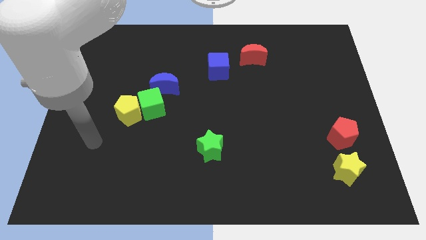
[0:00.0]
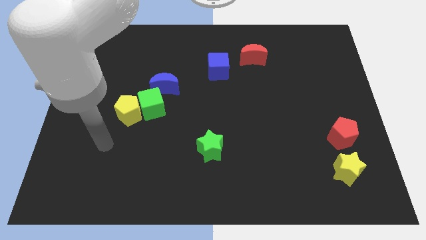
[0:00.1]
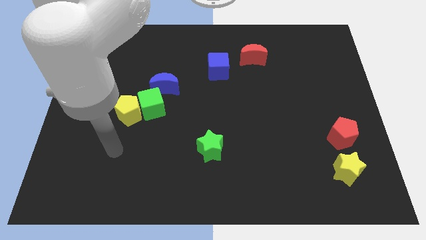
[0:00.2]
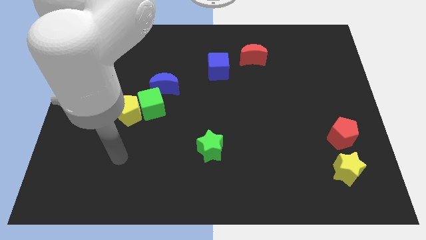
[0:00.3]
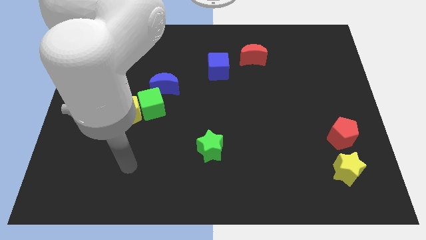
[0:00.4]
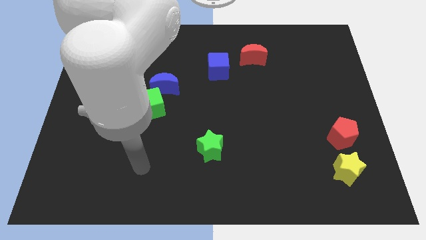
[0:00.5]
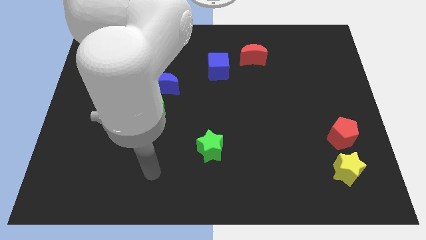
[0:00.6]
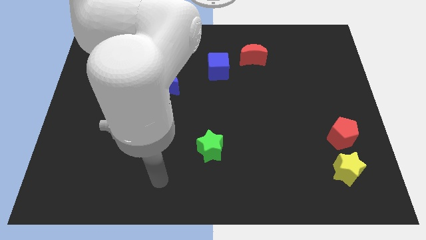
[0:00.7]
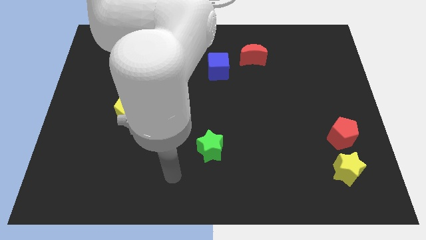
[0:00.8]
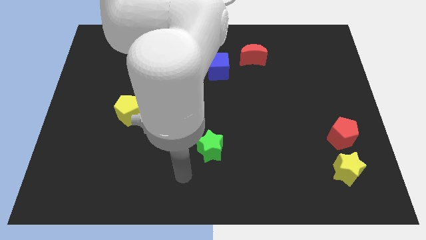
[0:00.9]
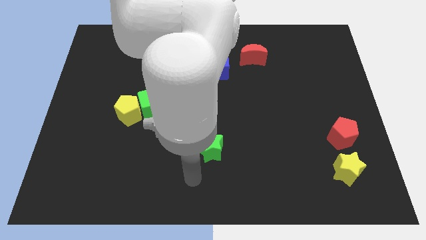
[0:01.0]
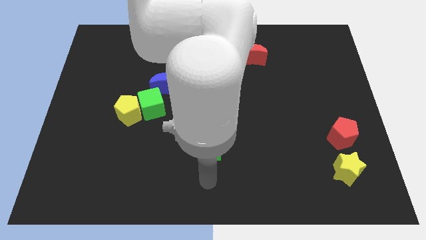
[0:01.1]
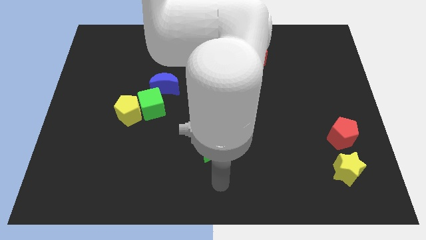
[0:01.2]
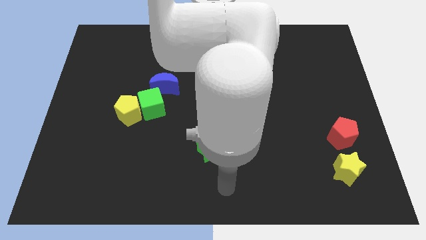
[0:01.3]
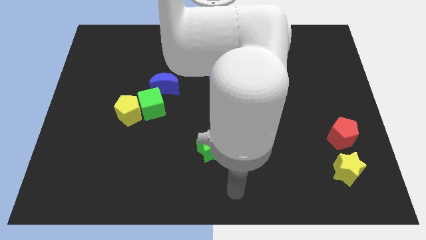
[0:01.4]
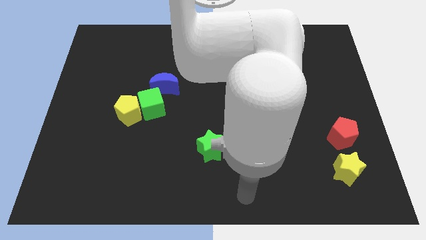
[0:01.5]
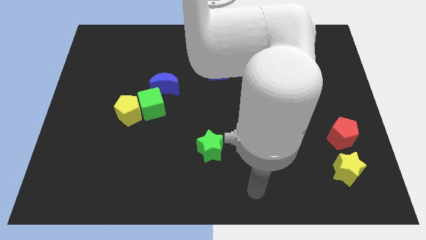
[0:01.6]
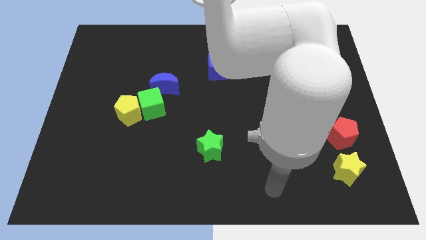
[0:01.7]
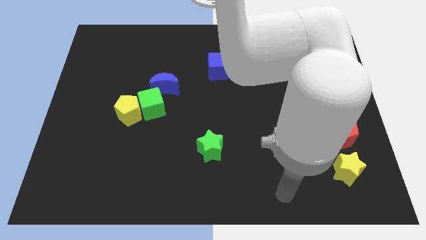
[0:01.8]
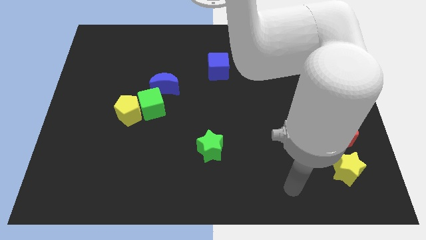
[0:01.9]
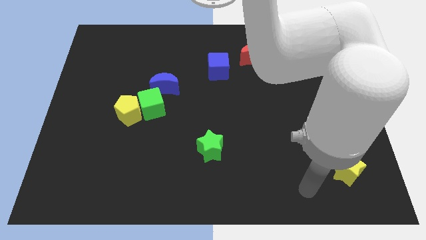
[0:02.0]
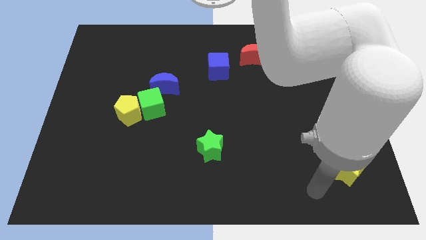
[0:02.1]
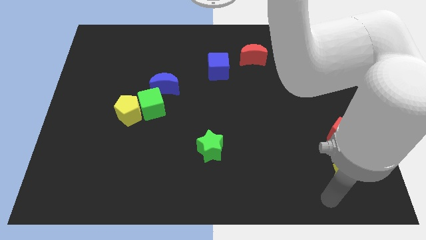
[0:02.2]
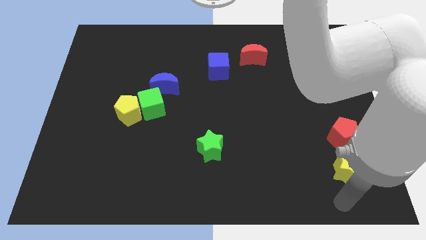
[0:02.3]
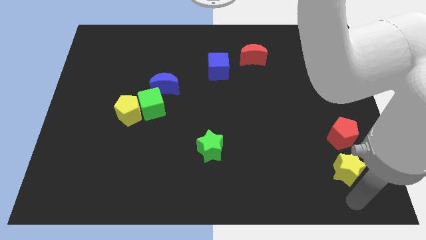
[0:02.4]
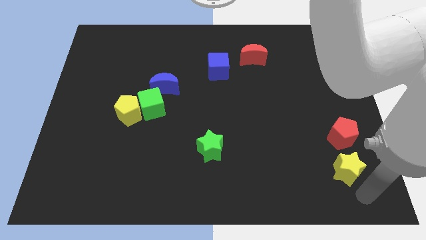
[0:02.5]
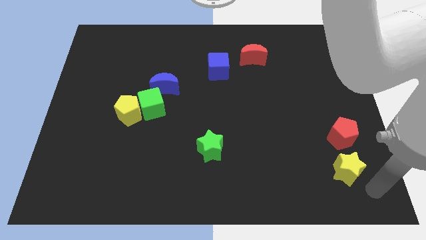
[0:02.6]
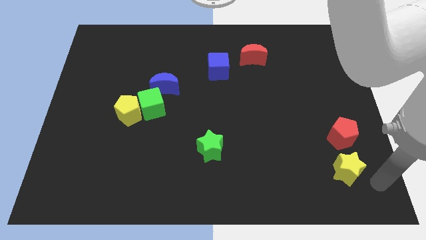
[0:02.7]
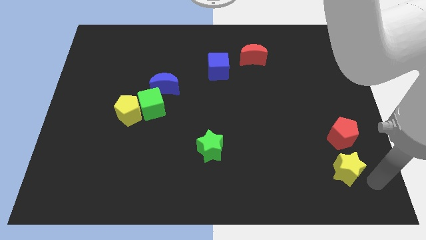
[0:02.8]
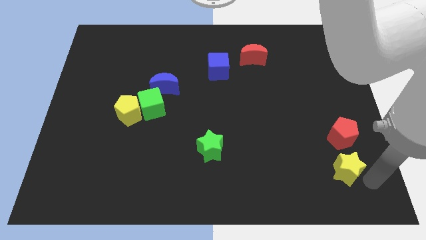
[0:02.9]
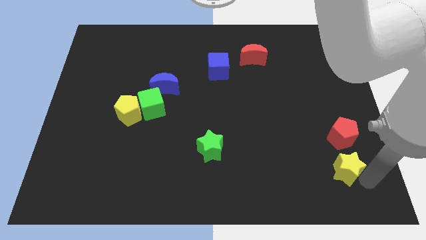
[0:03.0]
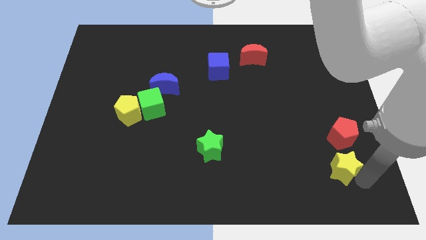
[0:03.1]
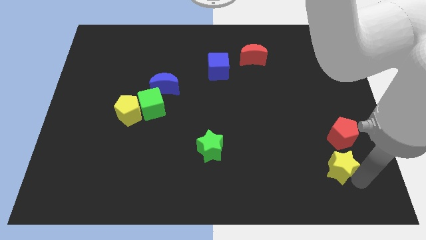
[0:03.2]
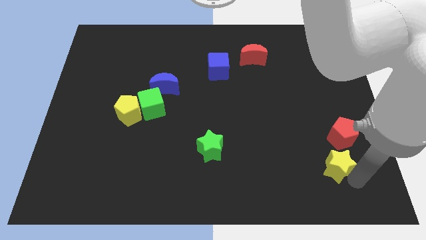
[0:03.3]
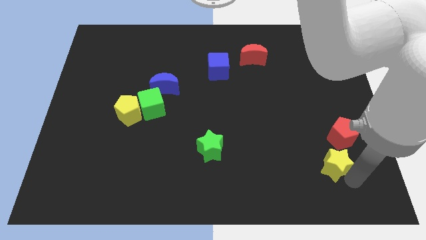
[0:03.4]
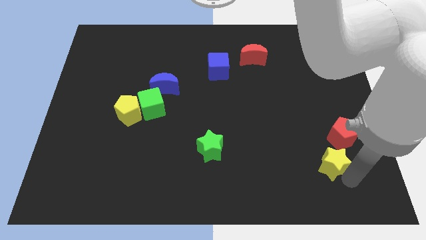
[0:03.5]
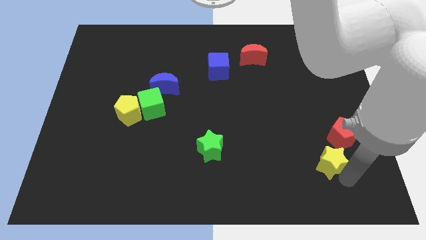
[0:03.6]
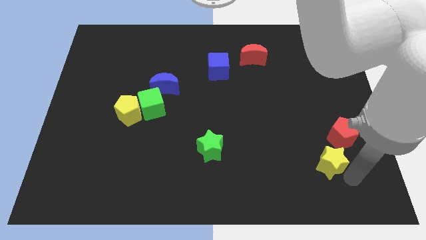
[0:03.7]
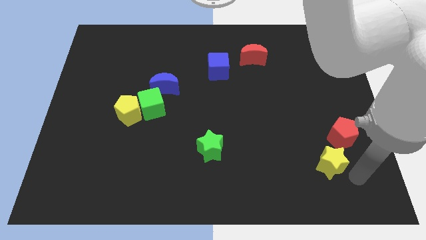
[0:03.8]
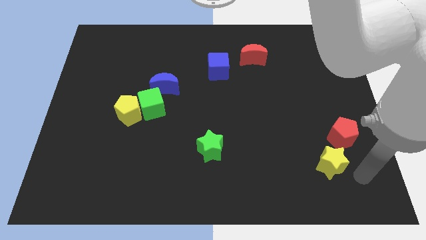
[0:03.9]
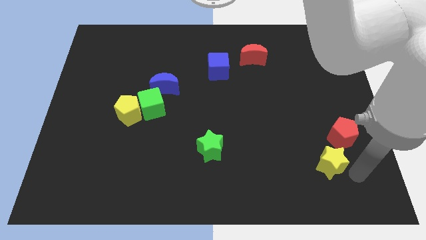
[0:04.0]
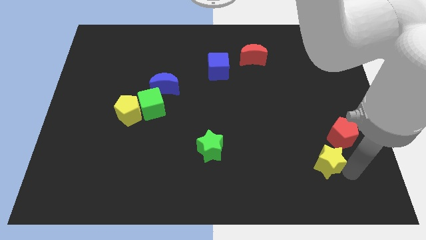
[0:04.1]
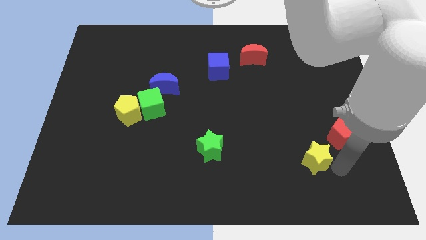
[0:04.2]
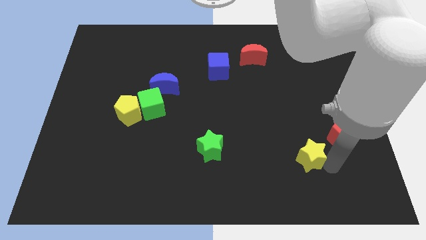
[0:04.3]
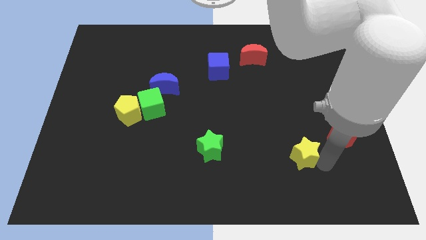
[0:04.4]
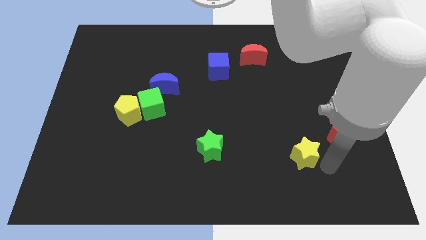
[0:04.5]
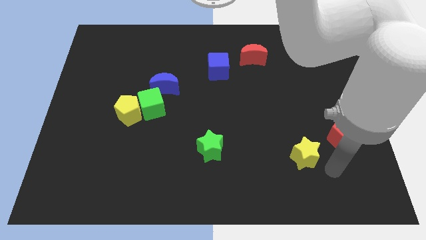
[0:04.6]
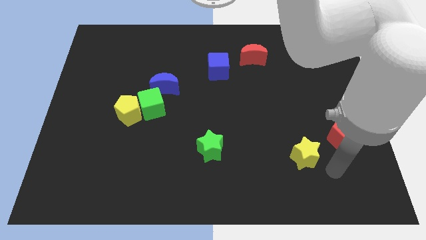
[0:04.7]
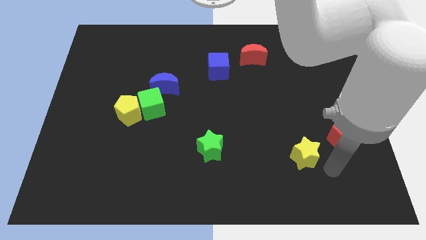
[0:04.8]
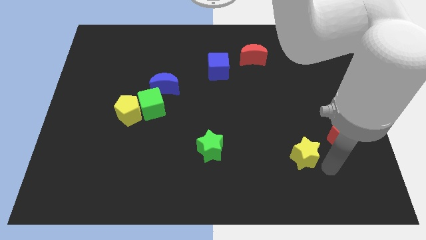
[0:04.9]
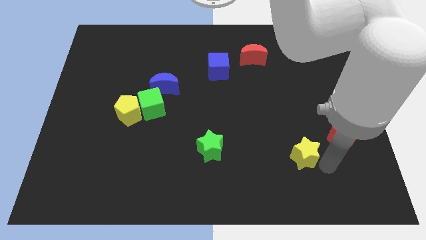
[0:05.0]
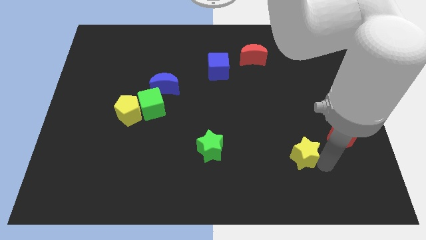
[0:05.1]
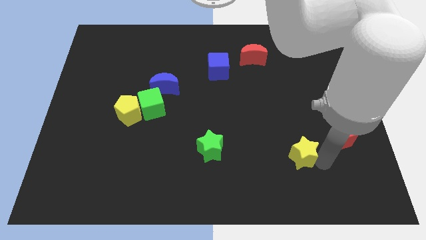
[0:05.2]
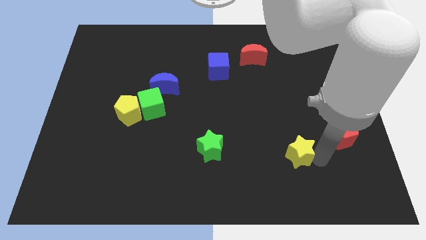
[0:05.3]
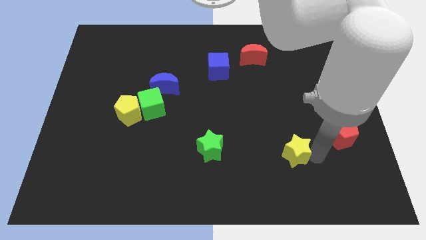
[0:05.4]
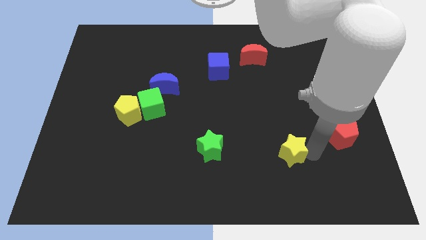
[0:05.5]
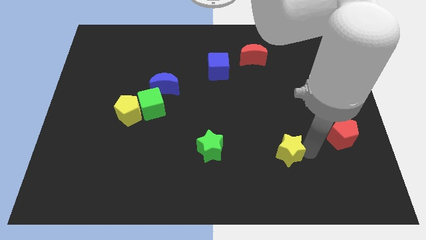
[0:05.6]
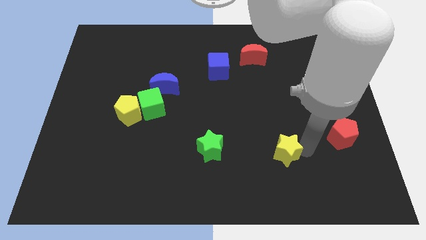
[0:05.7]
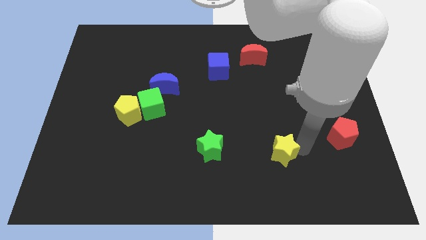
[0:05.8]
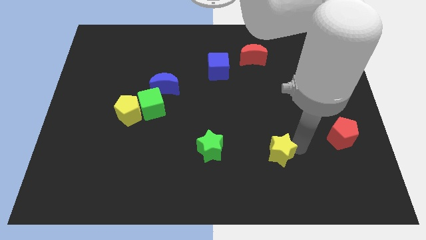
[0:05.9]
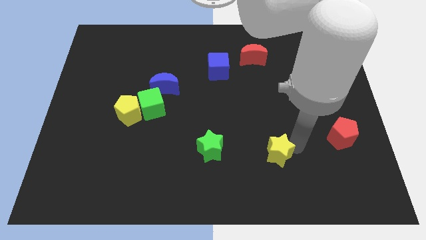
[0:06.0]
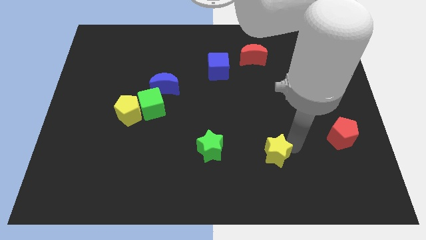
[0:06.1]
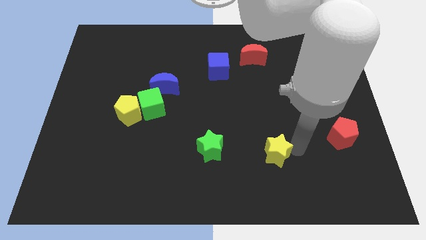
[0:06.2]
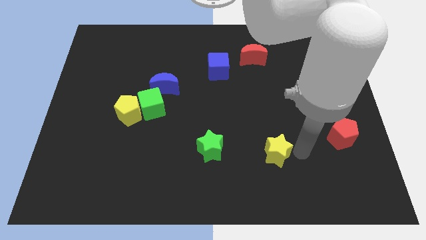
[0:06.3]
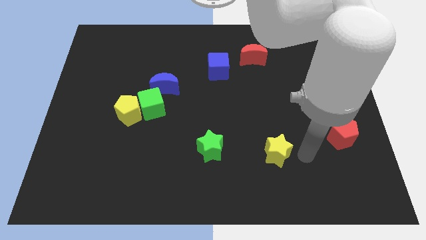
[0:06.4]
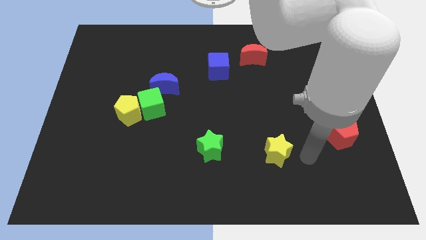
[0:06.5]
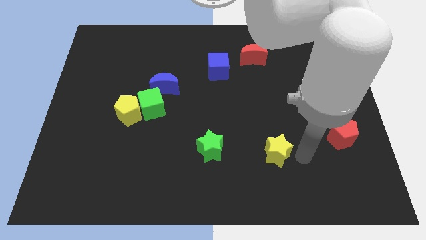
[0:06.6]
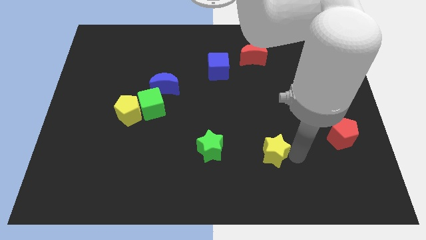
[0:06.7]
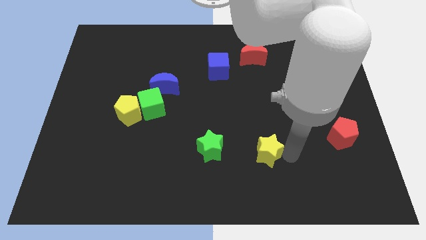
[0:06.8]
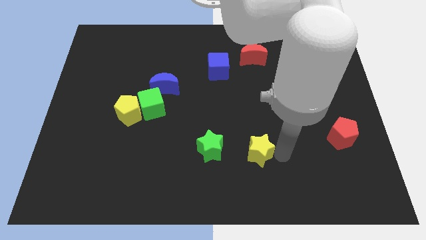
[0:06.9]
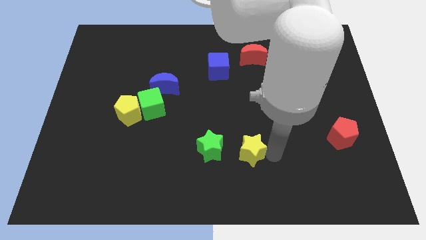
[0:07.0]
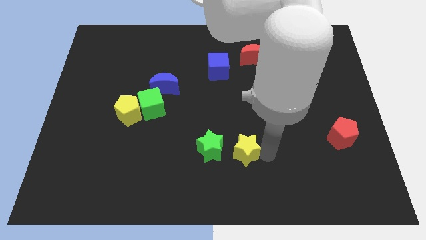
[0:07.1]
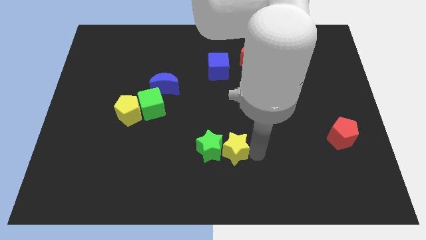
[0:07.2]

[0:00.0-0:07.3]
push the yellow star to the green star
